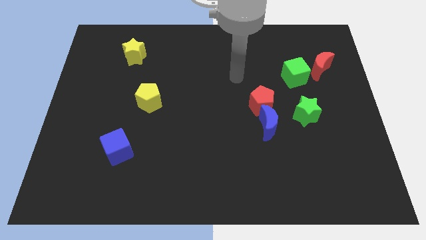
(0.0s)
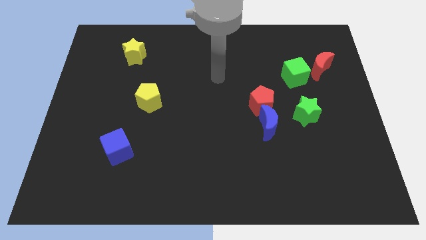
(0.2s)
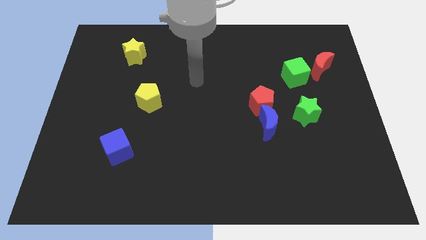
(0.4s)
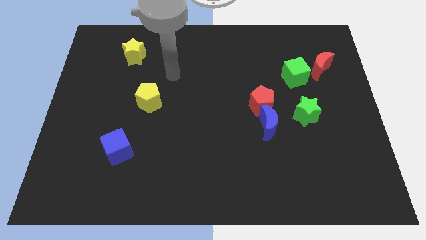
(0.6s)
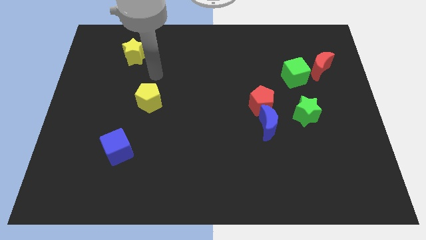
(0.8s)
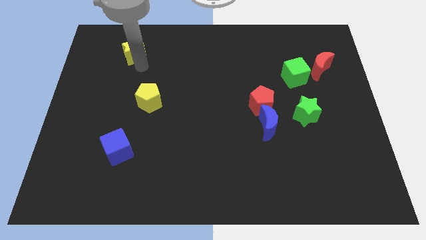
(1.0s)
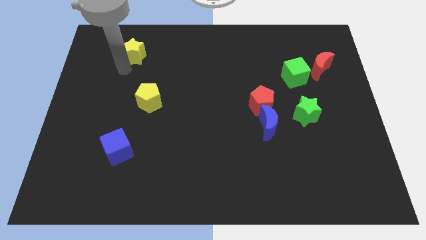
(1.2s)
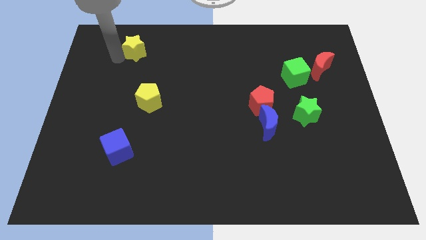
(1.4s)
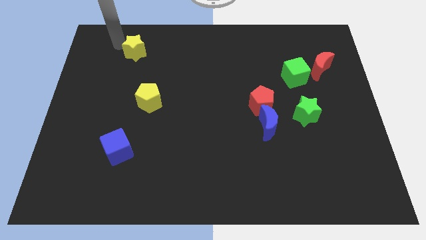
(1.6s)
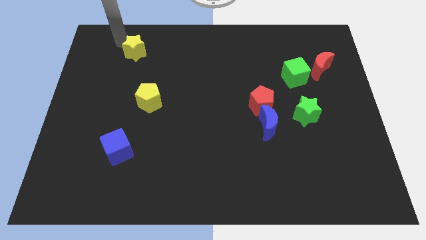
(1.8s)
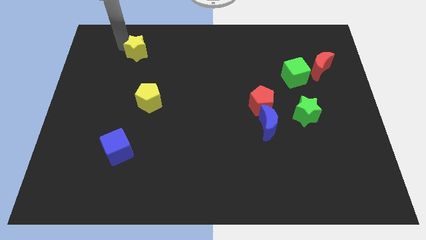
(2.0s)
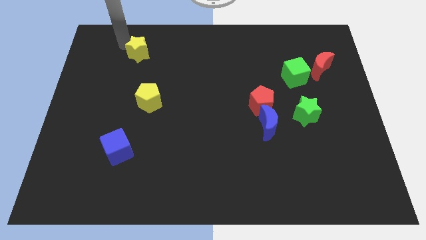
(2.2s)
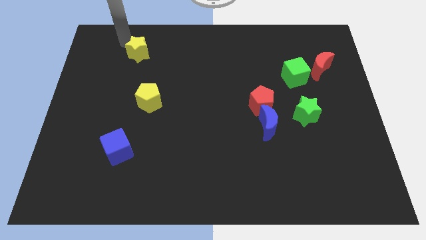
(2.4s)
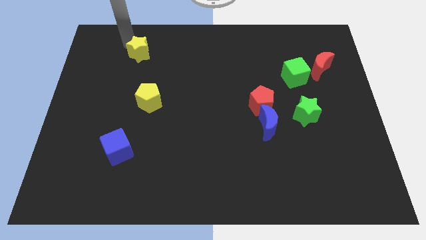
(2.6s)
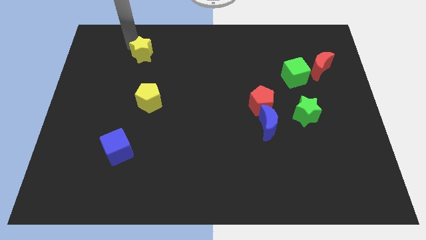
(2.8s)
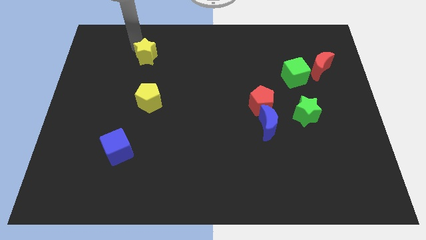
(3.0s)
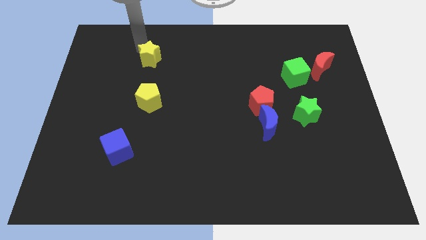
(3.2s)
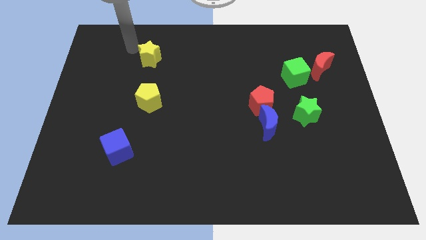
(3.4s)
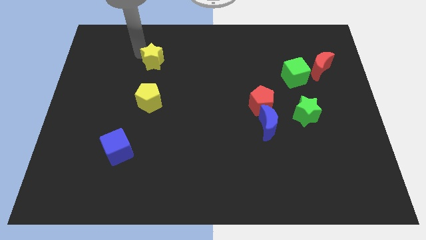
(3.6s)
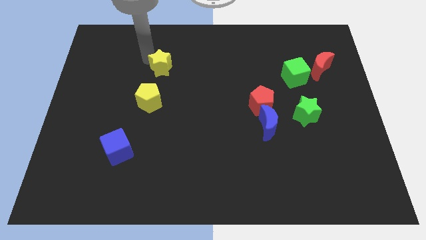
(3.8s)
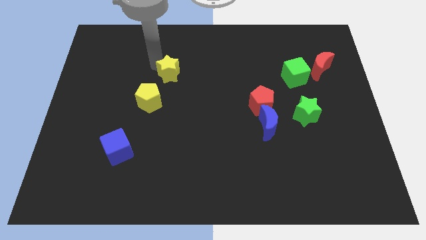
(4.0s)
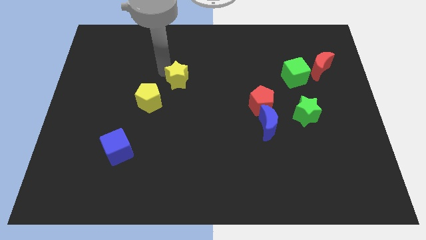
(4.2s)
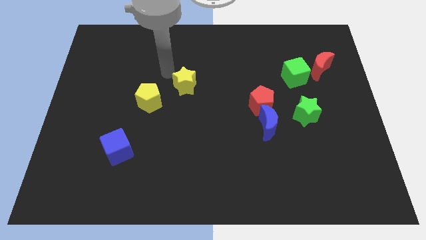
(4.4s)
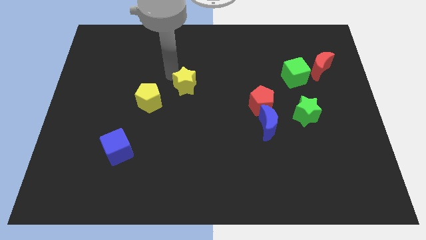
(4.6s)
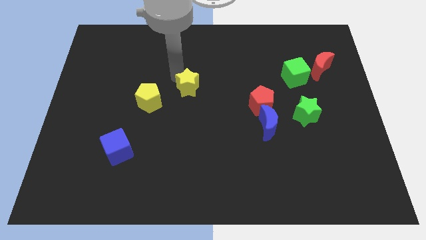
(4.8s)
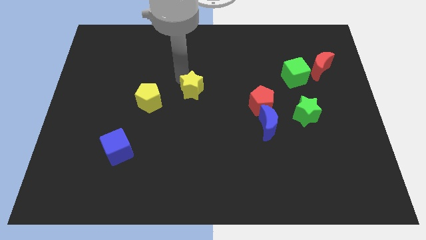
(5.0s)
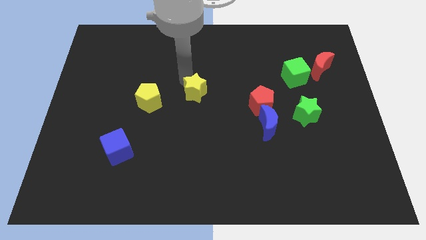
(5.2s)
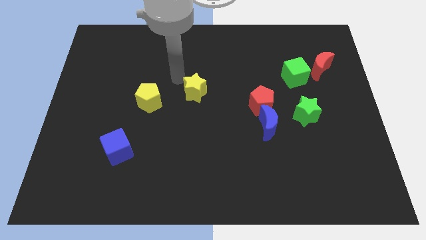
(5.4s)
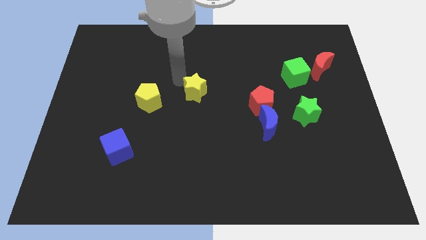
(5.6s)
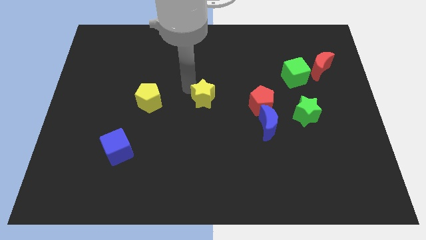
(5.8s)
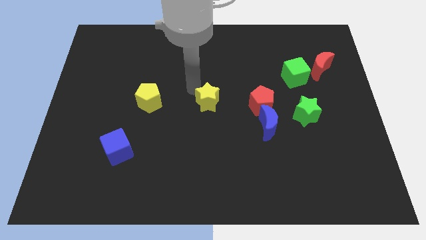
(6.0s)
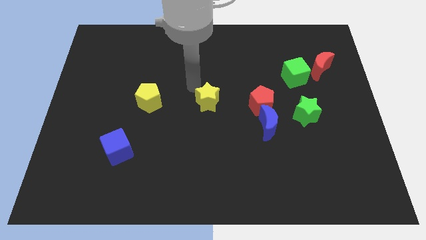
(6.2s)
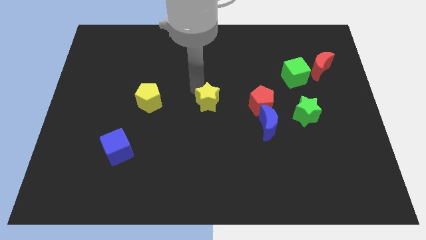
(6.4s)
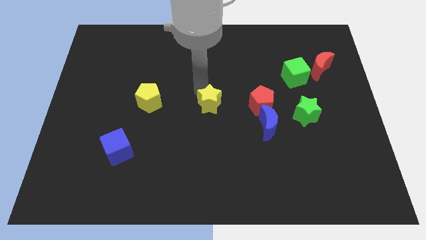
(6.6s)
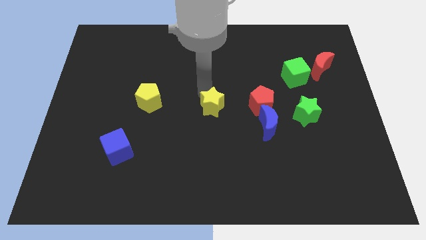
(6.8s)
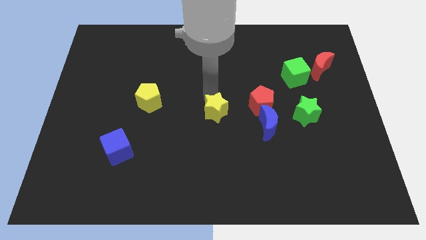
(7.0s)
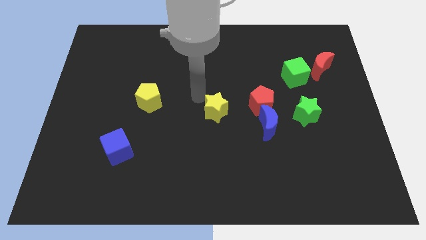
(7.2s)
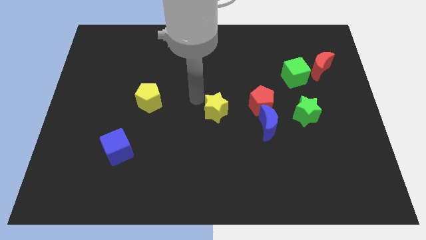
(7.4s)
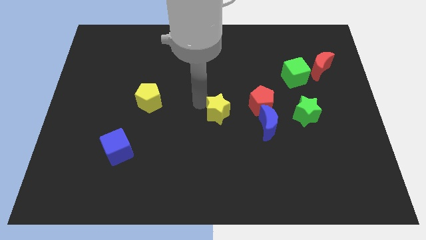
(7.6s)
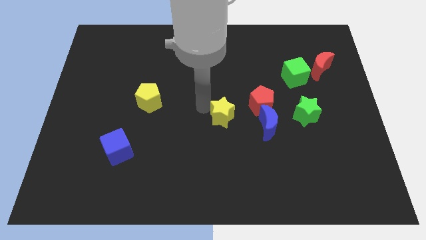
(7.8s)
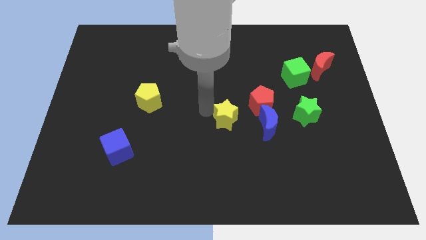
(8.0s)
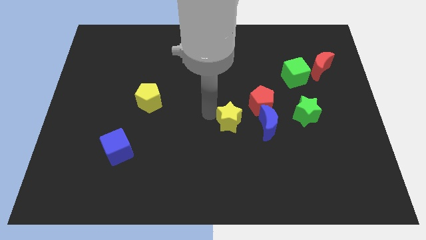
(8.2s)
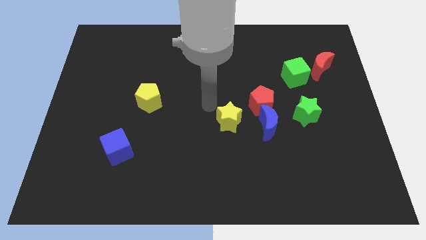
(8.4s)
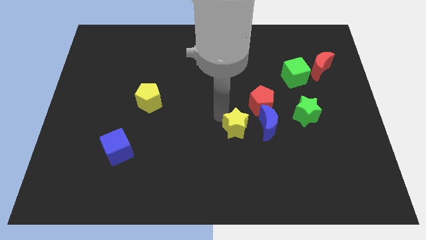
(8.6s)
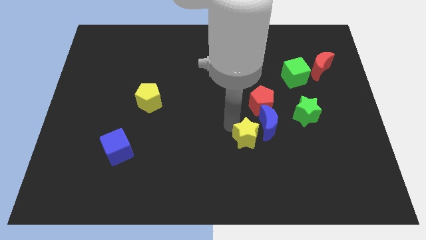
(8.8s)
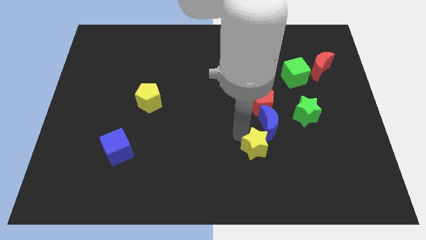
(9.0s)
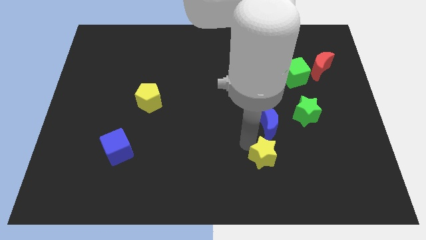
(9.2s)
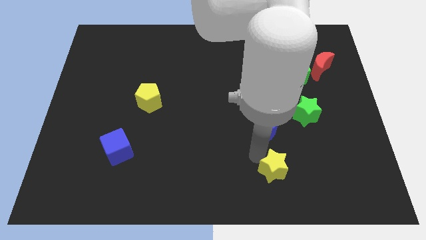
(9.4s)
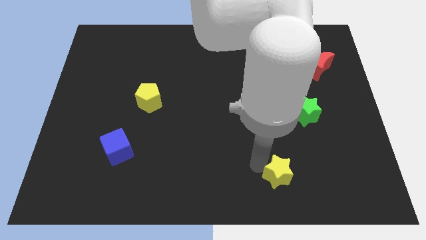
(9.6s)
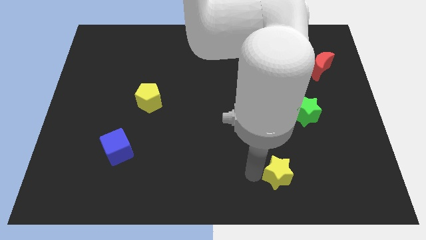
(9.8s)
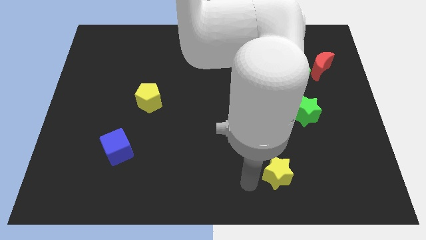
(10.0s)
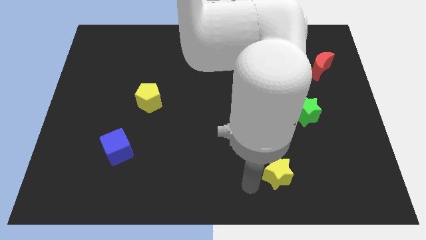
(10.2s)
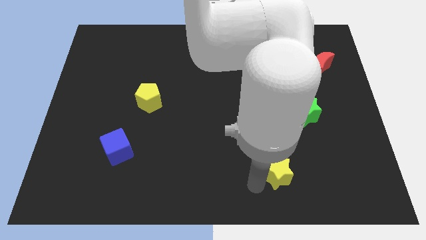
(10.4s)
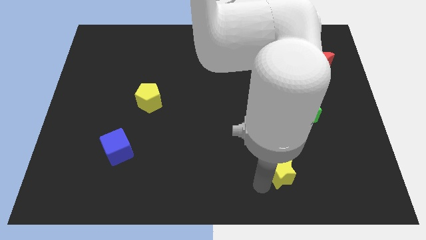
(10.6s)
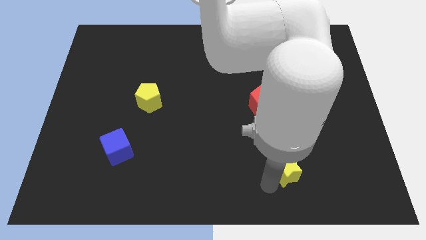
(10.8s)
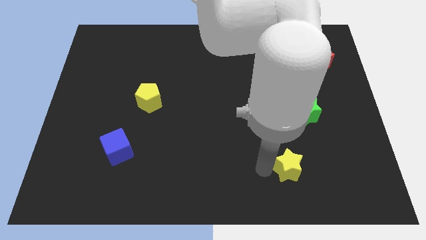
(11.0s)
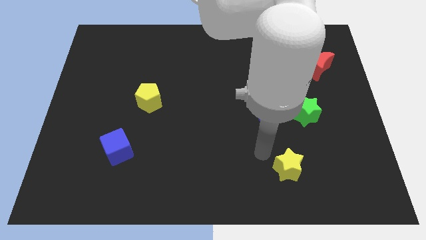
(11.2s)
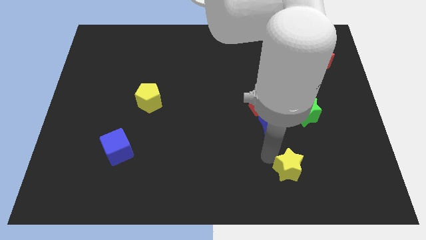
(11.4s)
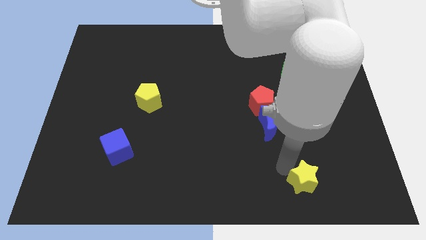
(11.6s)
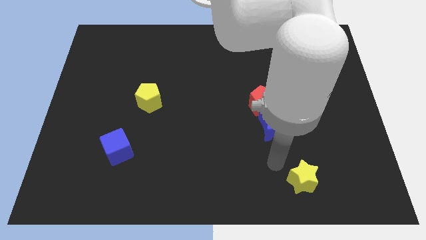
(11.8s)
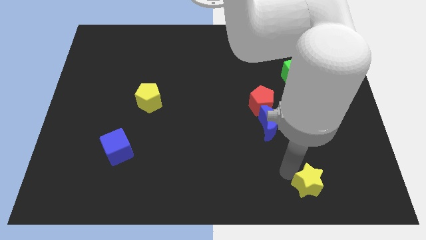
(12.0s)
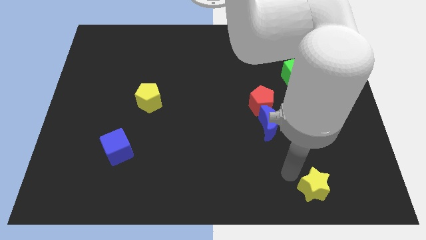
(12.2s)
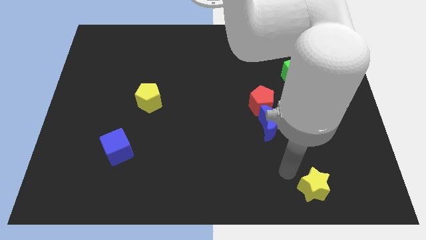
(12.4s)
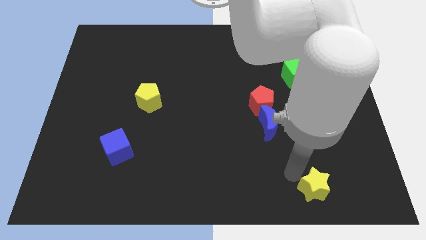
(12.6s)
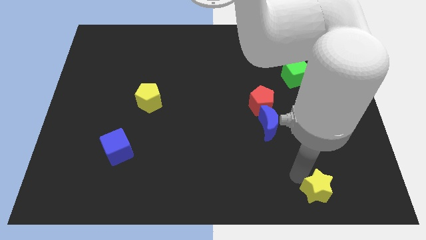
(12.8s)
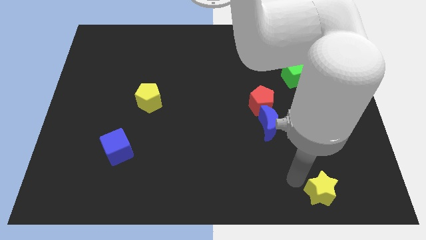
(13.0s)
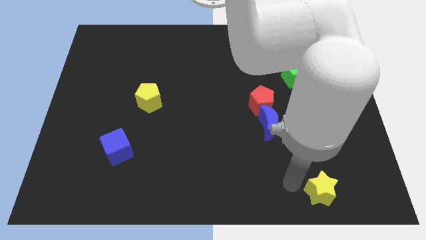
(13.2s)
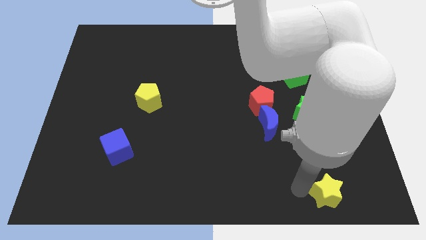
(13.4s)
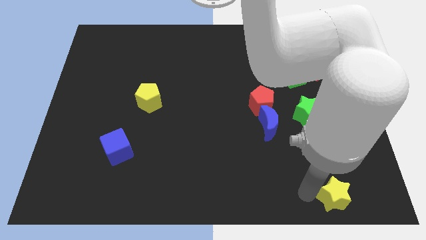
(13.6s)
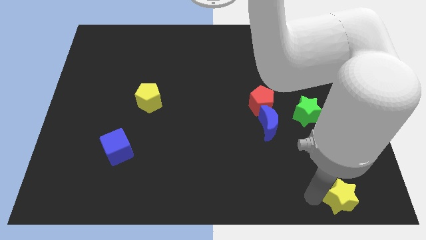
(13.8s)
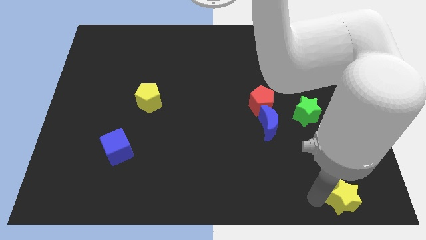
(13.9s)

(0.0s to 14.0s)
push the yellow star to the bottom right of the board
